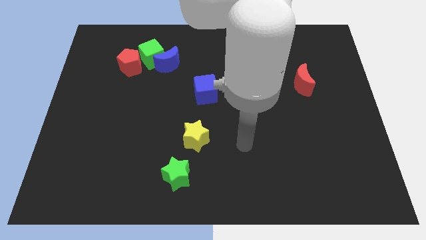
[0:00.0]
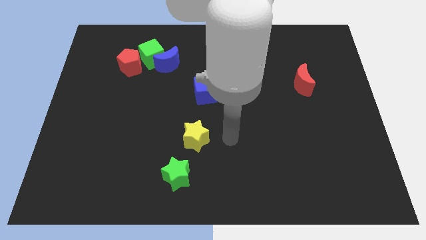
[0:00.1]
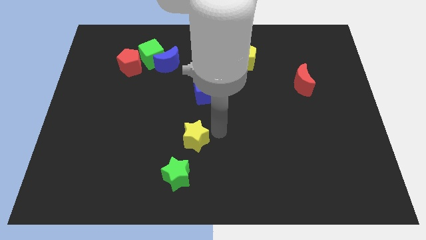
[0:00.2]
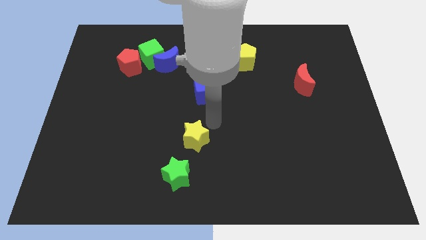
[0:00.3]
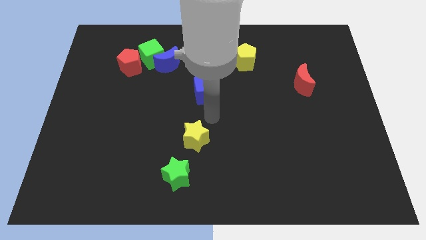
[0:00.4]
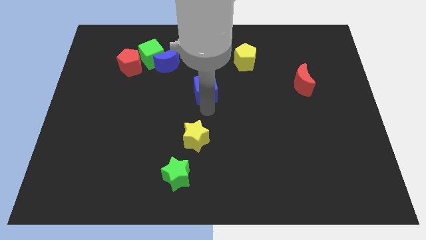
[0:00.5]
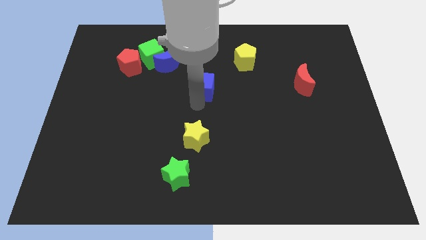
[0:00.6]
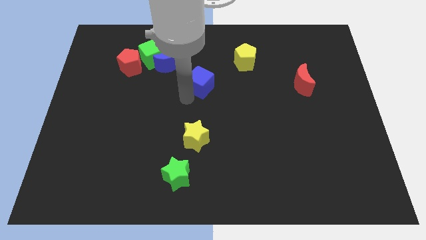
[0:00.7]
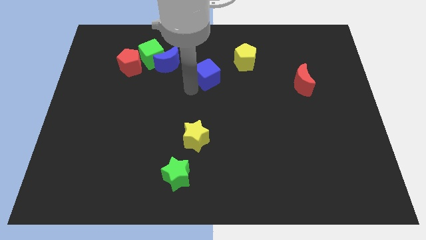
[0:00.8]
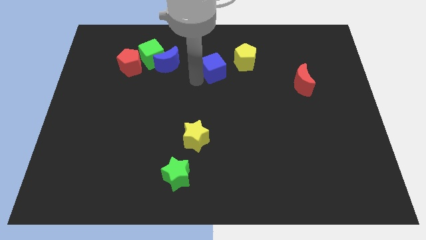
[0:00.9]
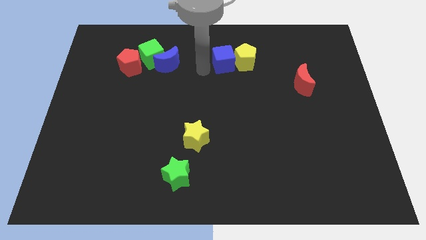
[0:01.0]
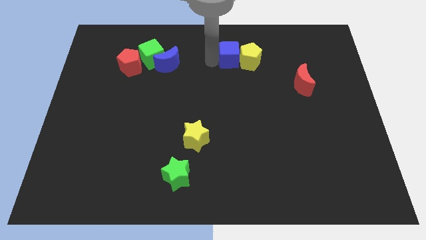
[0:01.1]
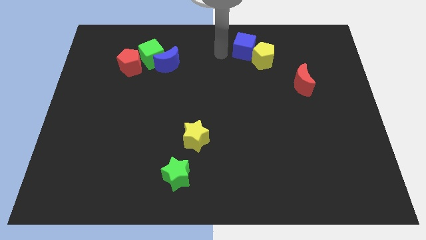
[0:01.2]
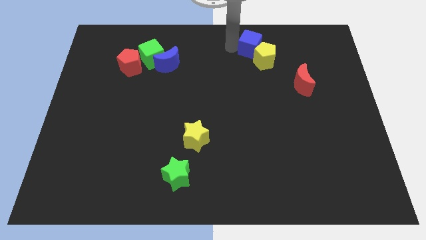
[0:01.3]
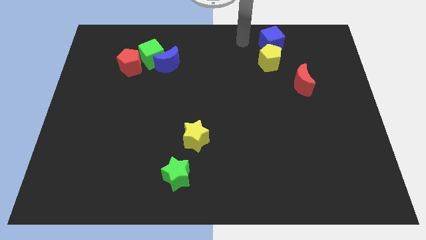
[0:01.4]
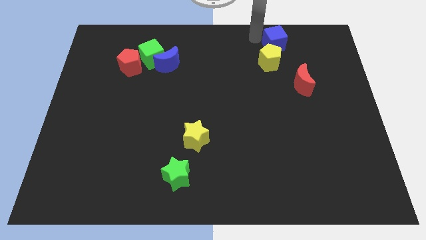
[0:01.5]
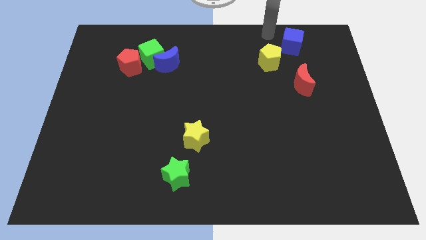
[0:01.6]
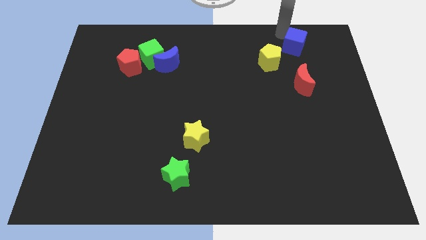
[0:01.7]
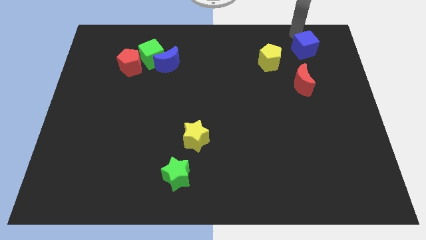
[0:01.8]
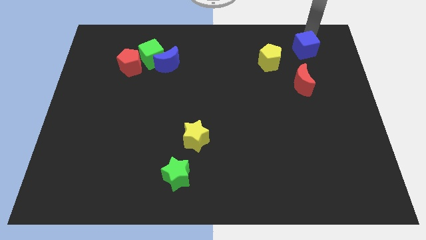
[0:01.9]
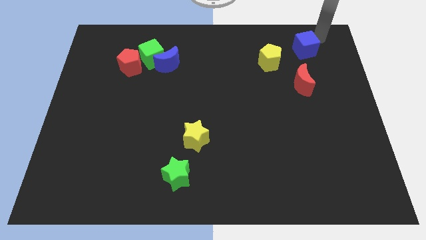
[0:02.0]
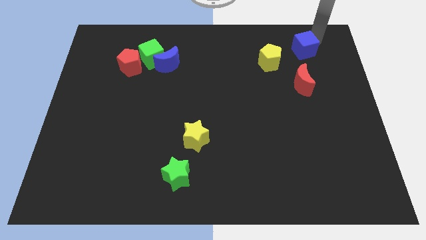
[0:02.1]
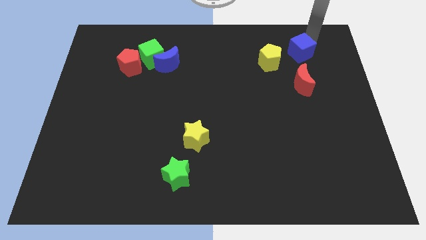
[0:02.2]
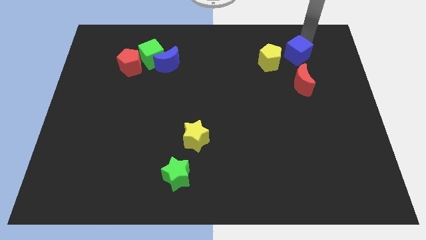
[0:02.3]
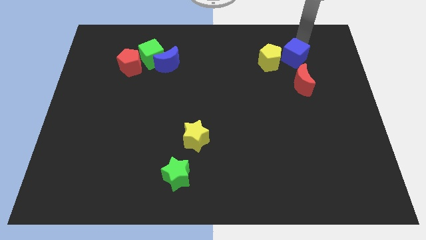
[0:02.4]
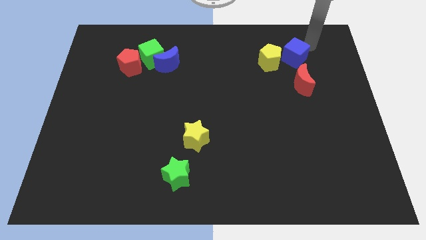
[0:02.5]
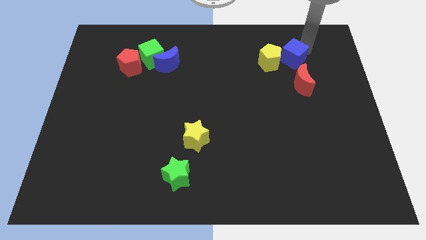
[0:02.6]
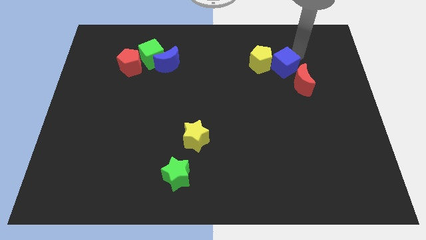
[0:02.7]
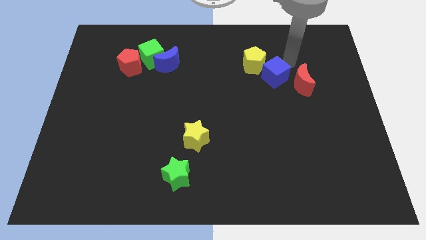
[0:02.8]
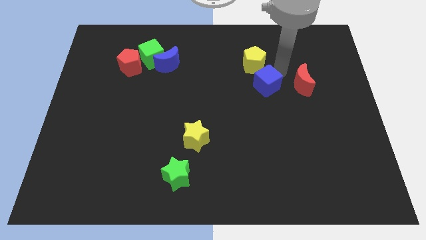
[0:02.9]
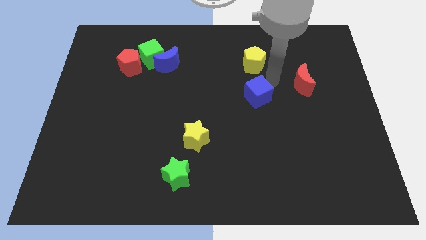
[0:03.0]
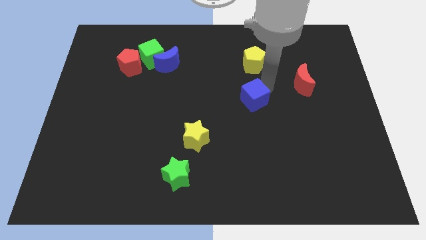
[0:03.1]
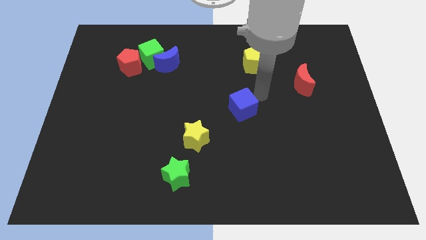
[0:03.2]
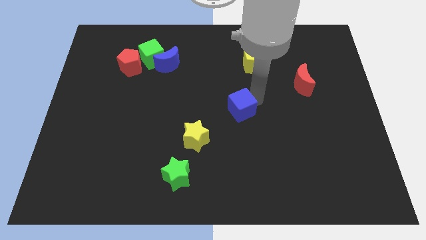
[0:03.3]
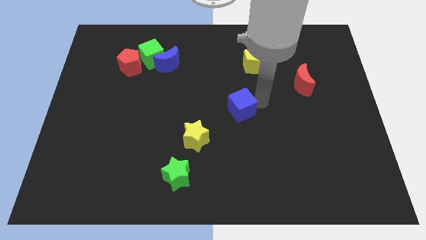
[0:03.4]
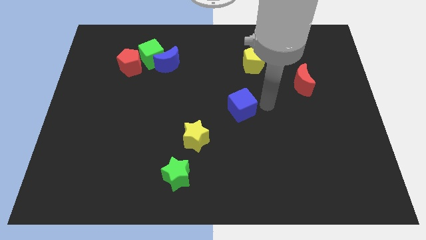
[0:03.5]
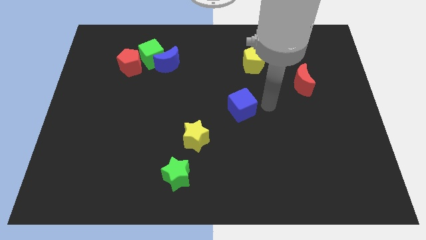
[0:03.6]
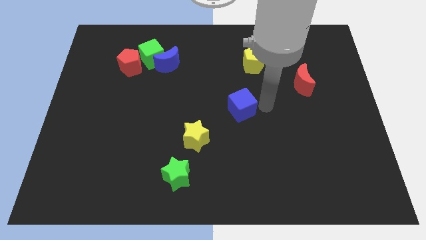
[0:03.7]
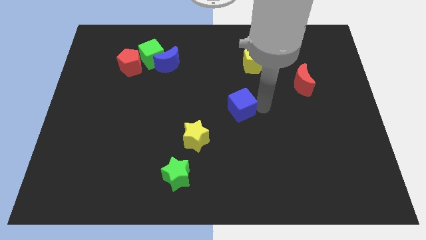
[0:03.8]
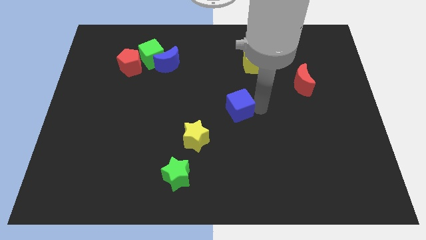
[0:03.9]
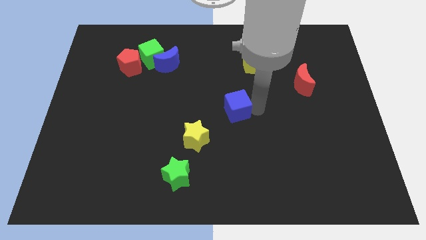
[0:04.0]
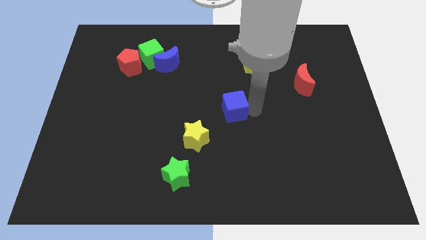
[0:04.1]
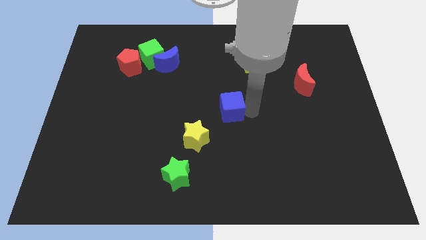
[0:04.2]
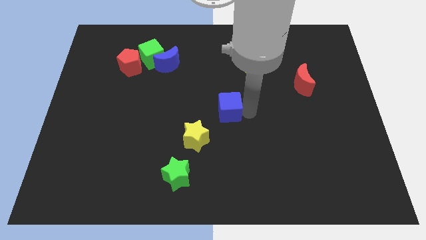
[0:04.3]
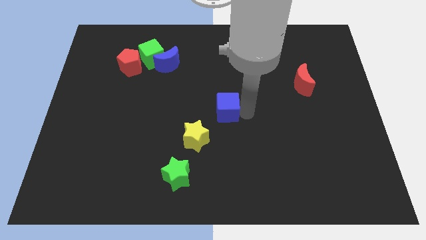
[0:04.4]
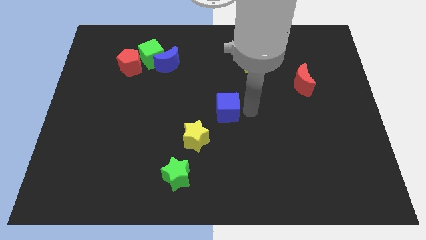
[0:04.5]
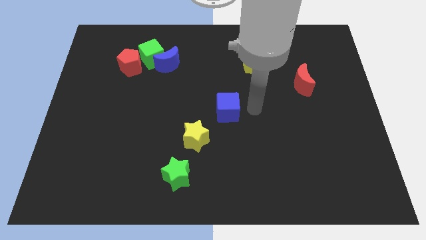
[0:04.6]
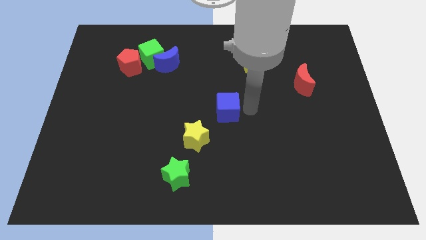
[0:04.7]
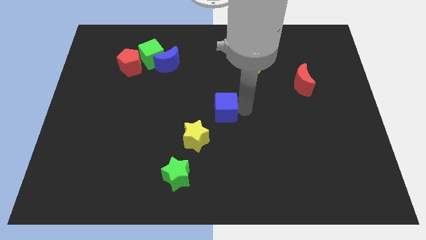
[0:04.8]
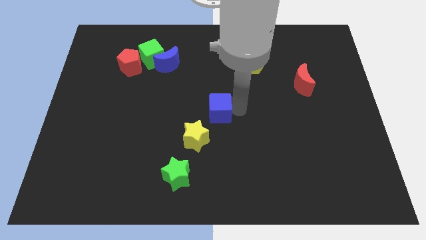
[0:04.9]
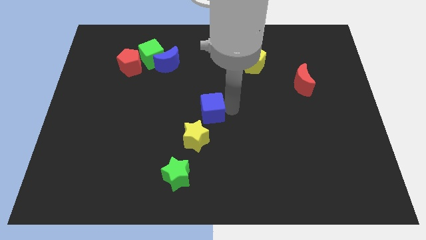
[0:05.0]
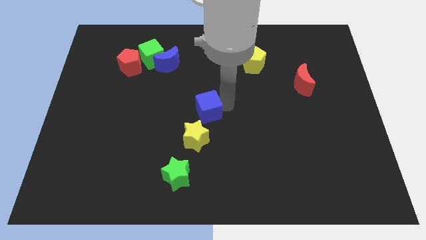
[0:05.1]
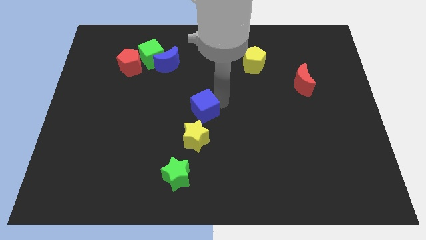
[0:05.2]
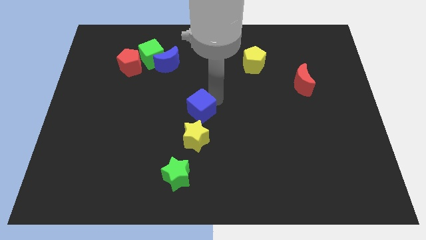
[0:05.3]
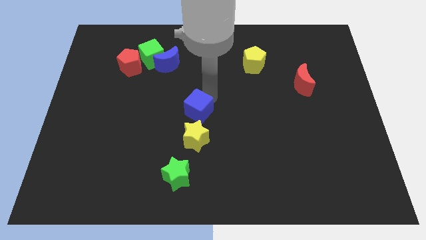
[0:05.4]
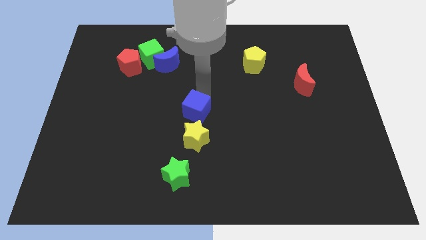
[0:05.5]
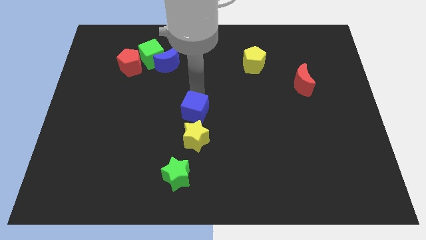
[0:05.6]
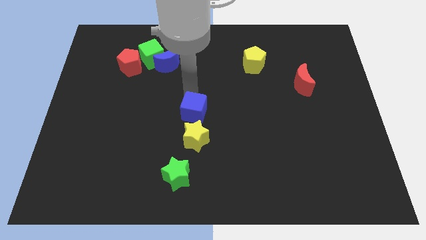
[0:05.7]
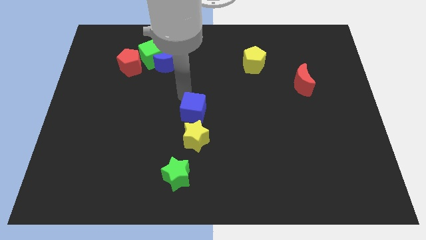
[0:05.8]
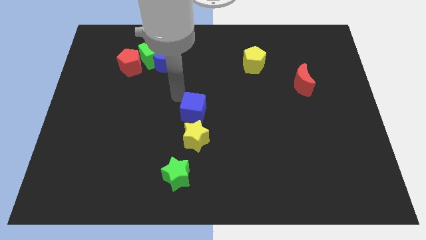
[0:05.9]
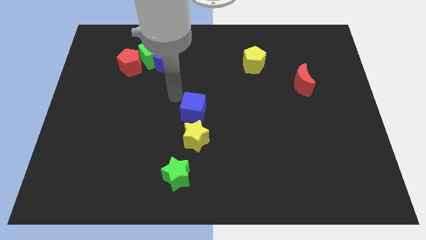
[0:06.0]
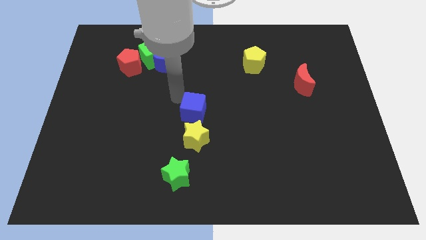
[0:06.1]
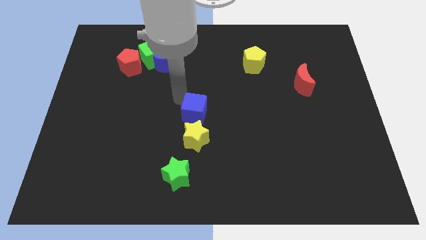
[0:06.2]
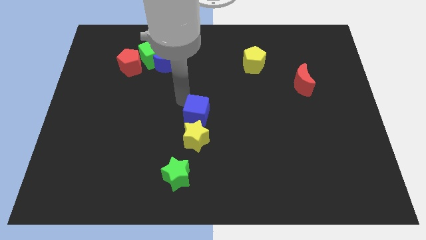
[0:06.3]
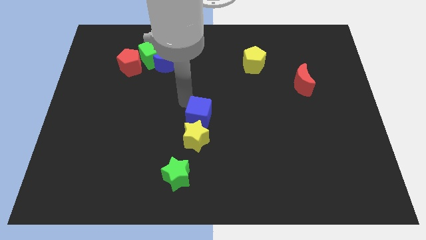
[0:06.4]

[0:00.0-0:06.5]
push the blue cube down a little bit

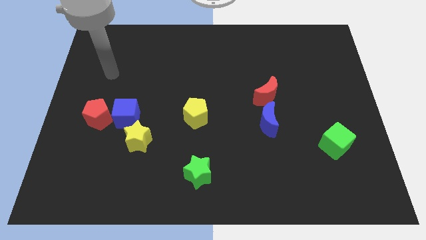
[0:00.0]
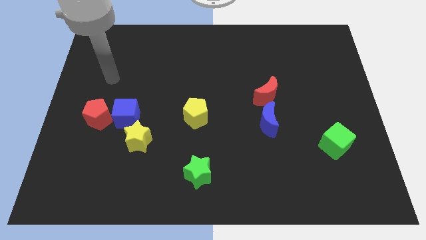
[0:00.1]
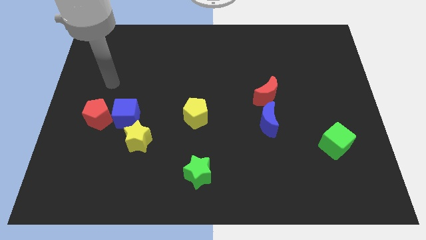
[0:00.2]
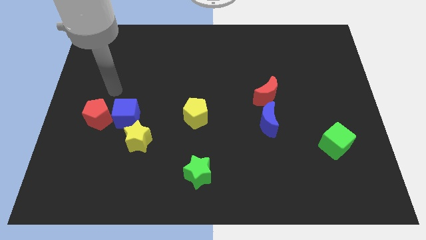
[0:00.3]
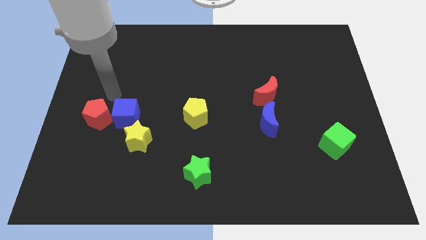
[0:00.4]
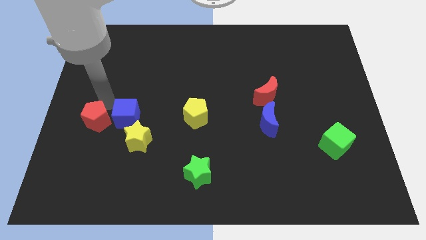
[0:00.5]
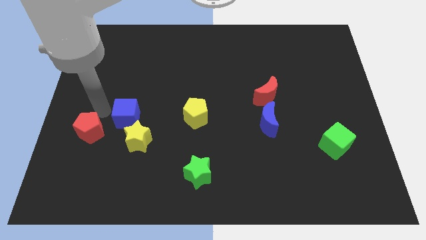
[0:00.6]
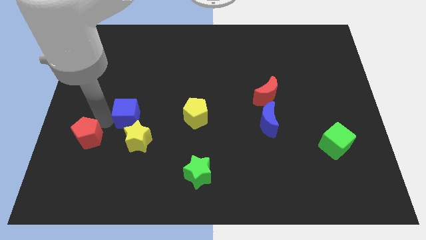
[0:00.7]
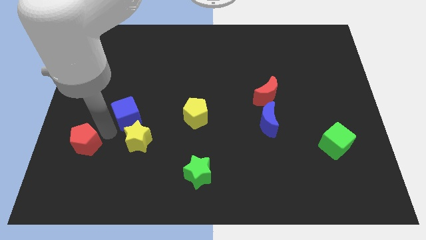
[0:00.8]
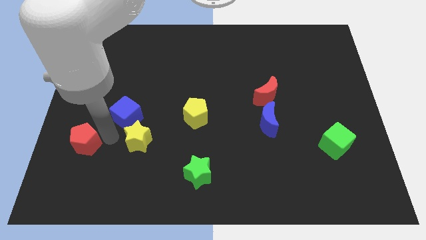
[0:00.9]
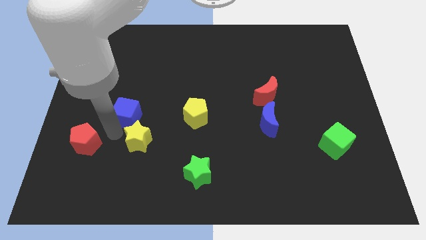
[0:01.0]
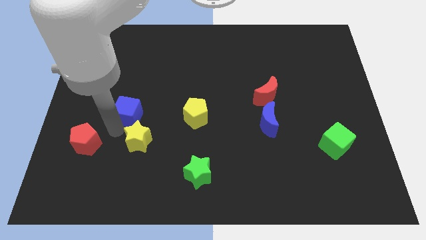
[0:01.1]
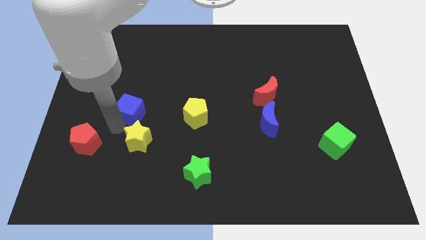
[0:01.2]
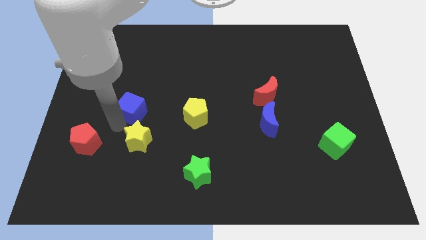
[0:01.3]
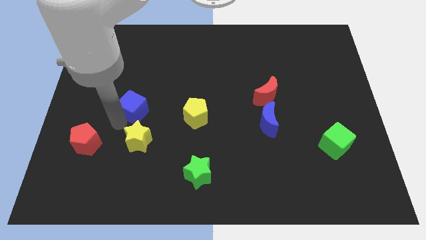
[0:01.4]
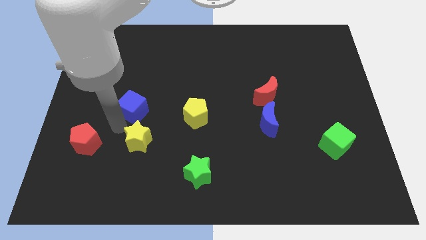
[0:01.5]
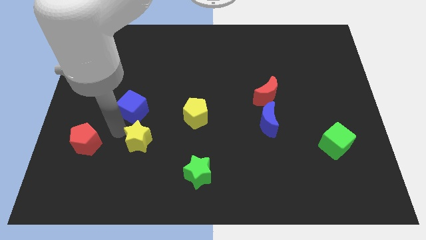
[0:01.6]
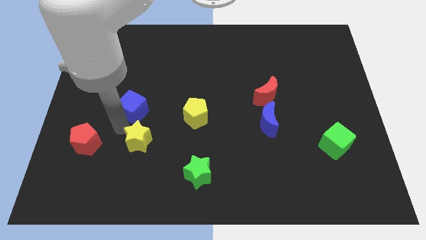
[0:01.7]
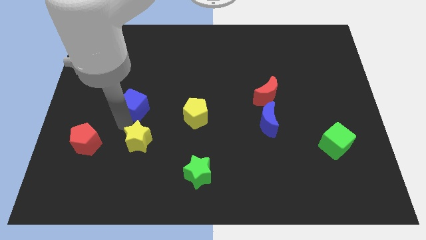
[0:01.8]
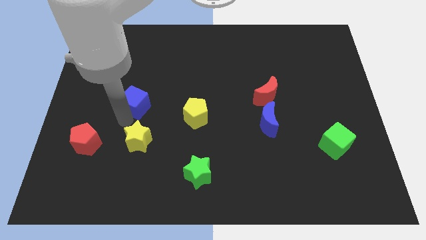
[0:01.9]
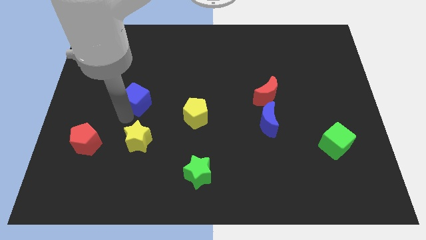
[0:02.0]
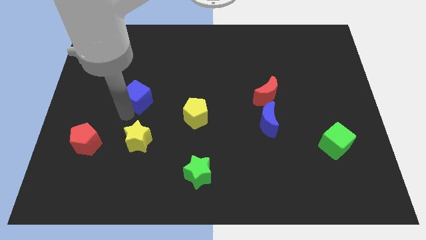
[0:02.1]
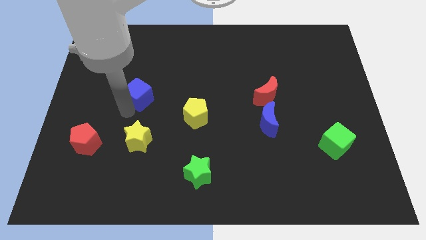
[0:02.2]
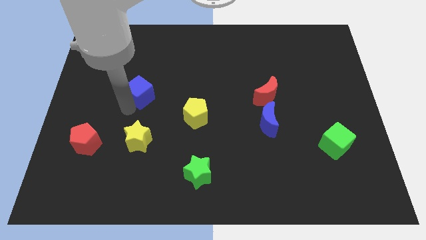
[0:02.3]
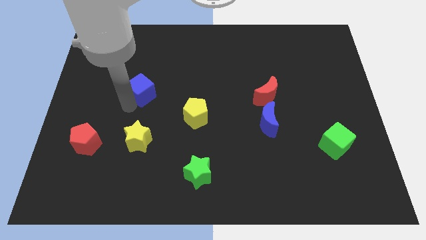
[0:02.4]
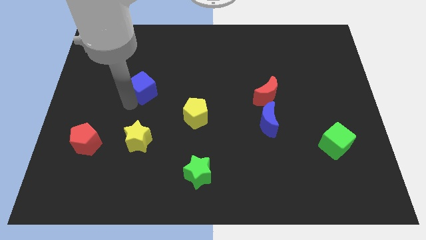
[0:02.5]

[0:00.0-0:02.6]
slide the blue cube a little diagonally upwards and to the right
